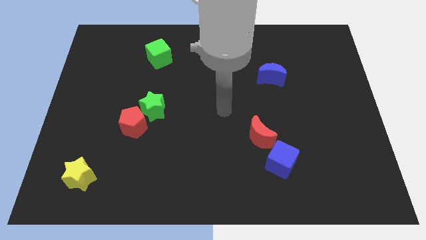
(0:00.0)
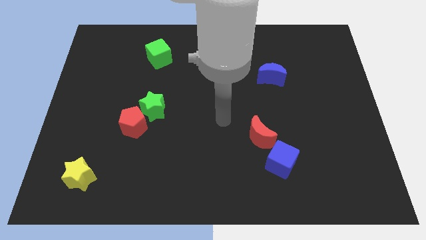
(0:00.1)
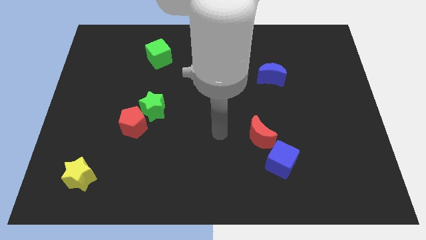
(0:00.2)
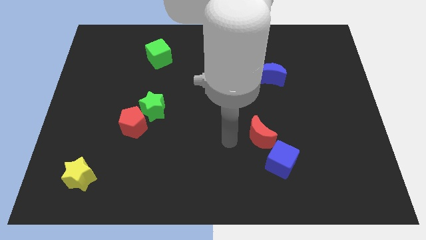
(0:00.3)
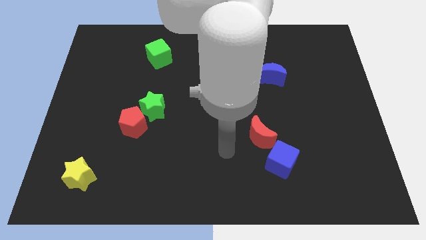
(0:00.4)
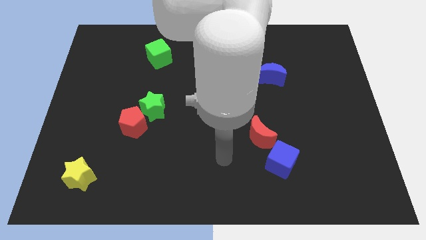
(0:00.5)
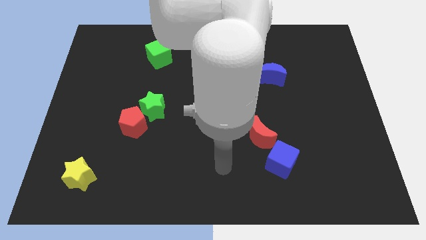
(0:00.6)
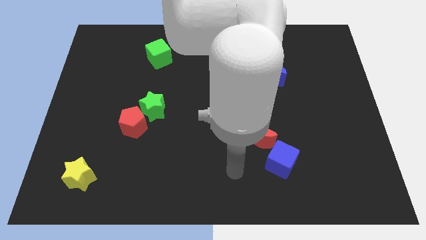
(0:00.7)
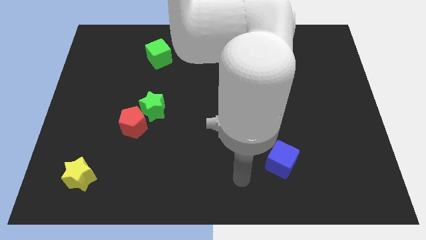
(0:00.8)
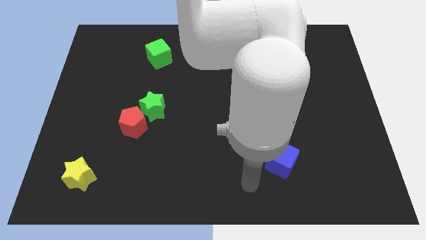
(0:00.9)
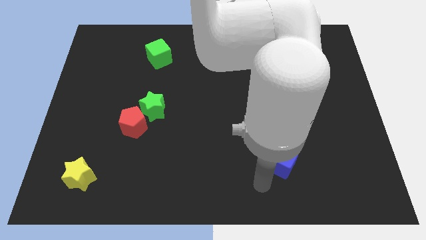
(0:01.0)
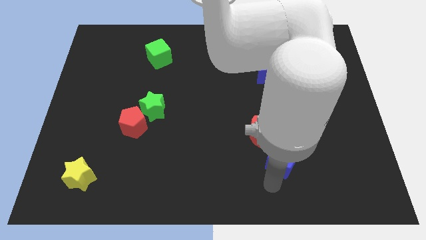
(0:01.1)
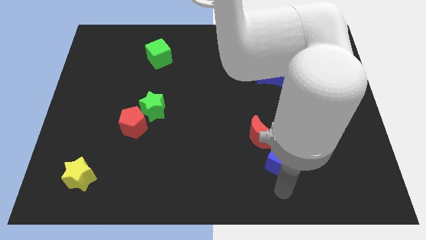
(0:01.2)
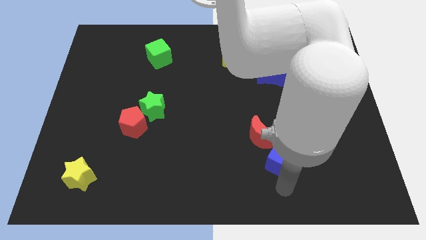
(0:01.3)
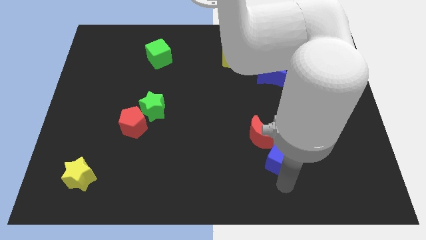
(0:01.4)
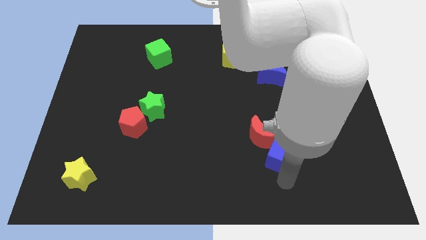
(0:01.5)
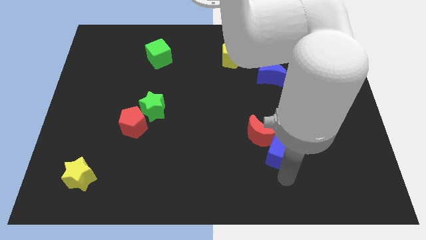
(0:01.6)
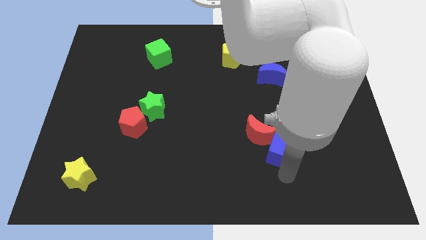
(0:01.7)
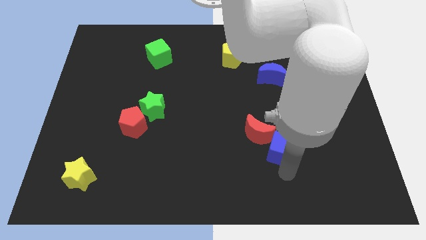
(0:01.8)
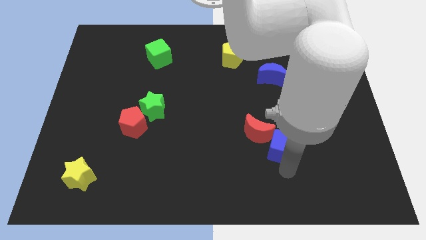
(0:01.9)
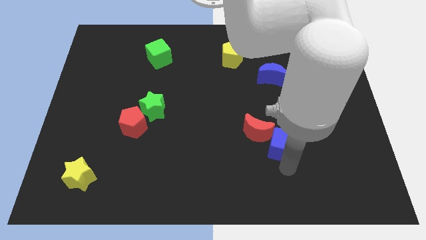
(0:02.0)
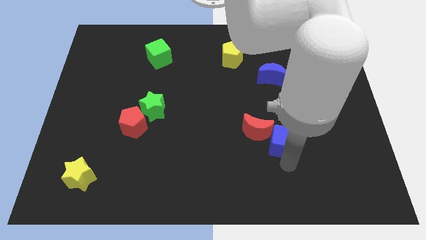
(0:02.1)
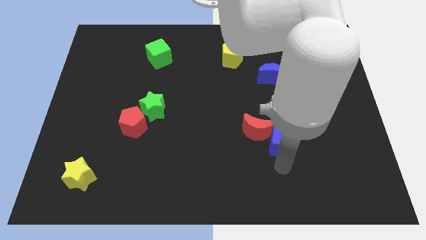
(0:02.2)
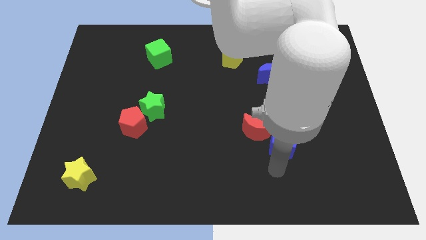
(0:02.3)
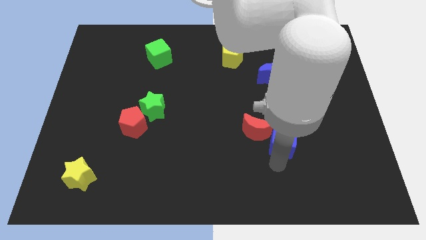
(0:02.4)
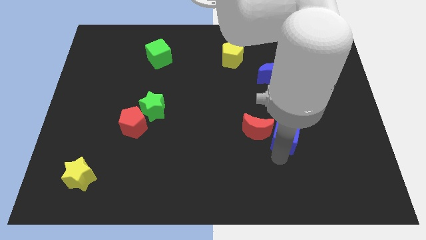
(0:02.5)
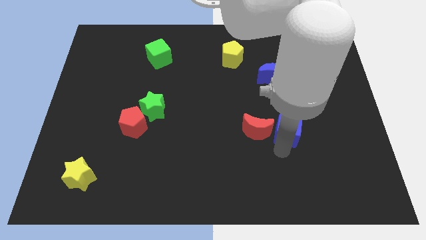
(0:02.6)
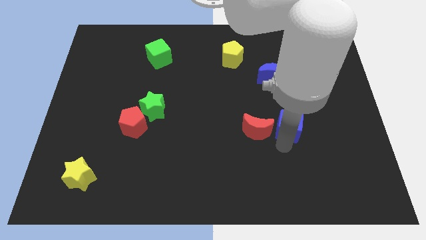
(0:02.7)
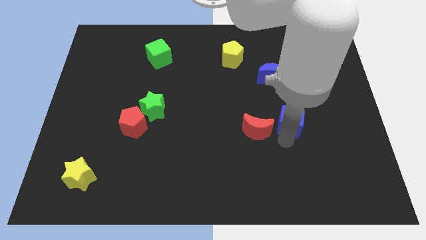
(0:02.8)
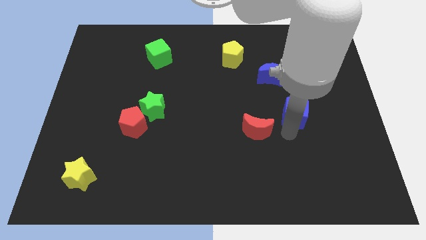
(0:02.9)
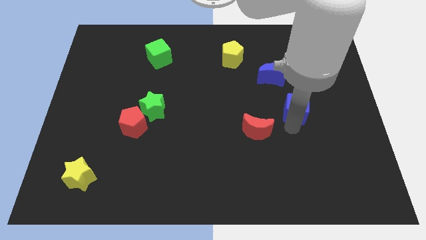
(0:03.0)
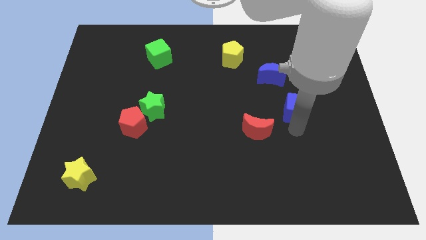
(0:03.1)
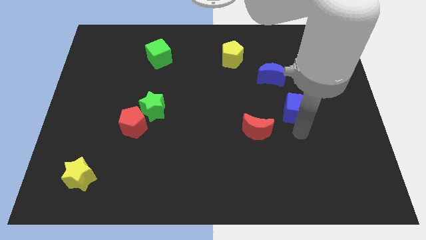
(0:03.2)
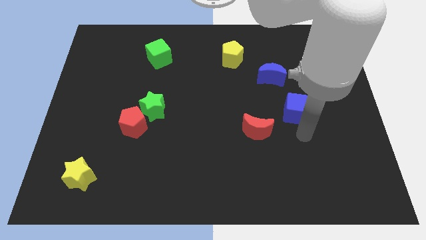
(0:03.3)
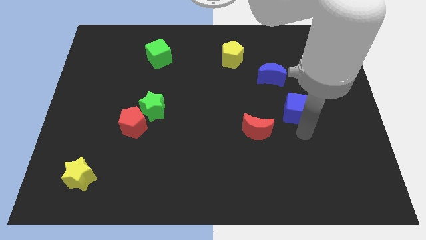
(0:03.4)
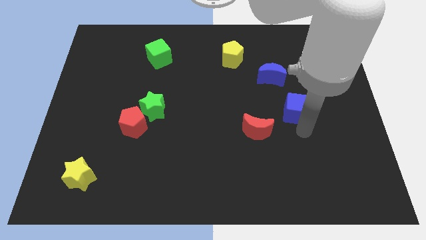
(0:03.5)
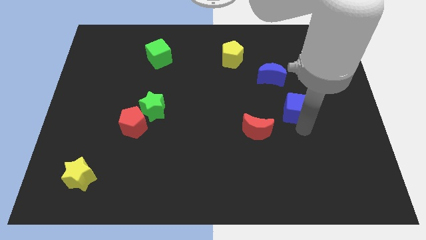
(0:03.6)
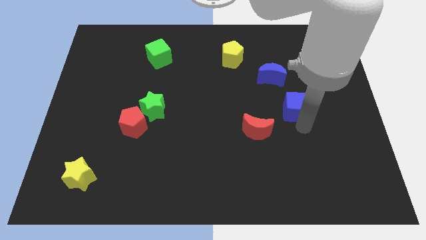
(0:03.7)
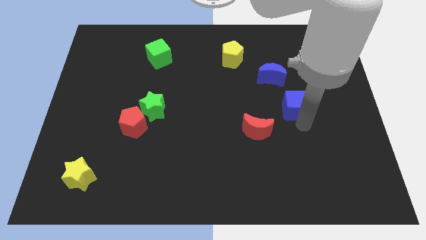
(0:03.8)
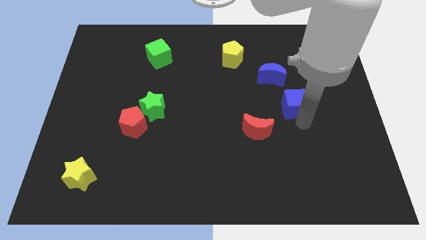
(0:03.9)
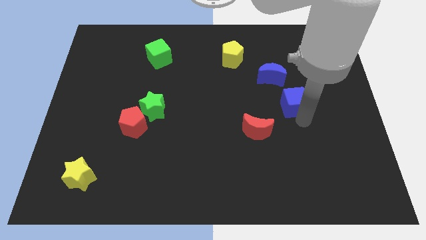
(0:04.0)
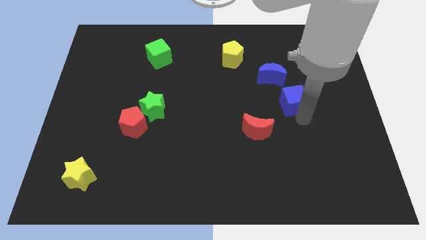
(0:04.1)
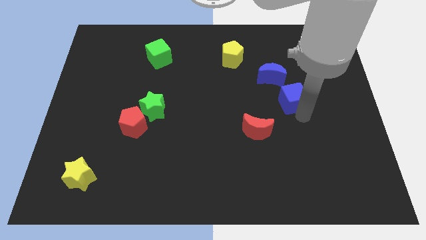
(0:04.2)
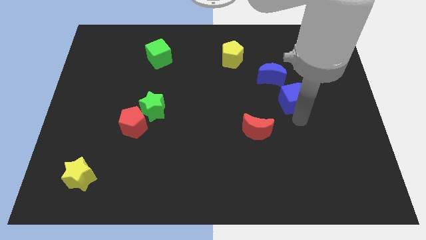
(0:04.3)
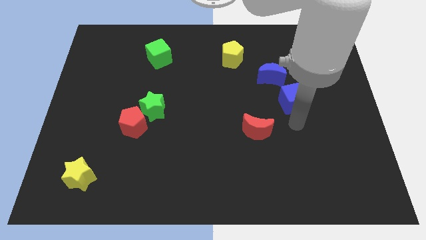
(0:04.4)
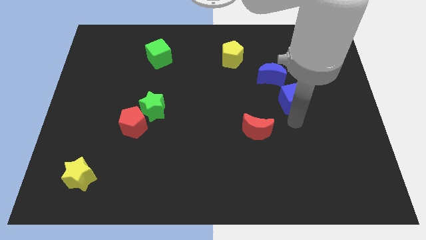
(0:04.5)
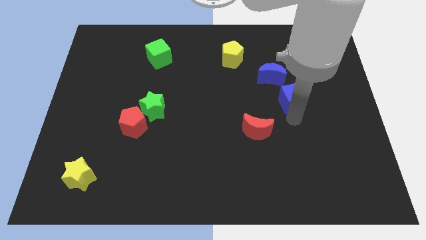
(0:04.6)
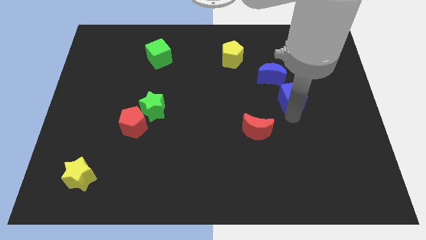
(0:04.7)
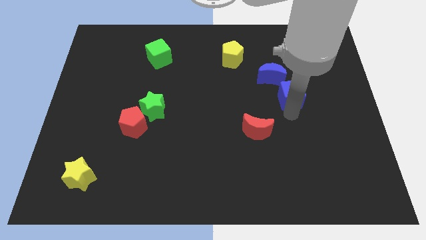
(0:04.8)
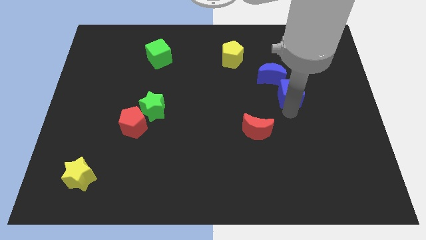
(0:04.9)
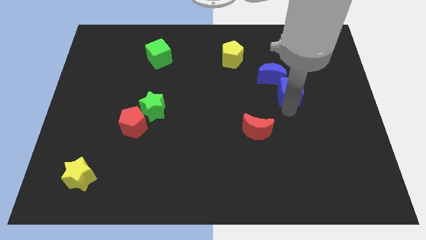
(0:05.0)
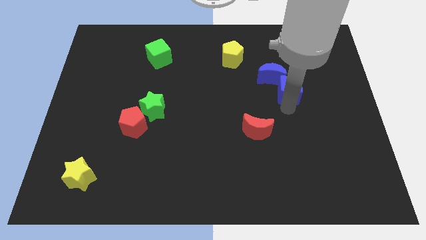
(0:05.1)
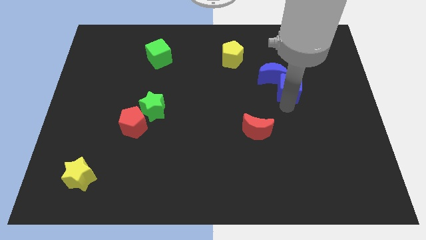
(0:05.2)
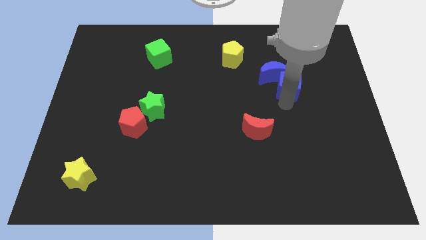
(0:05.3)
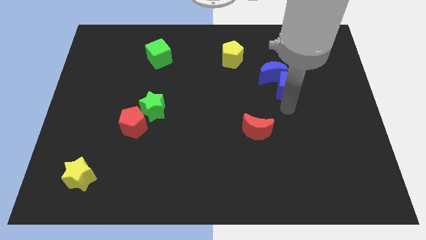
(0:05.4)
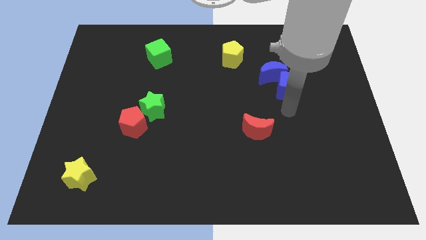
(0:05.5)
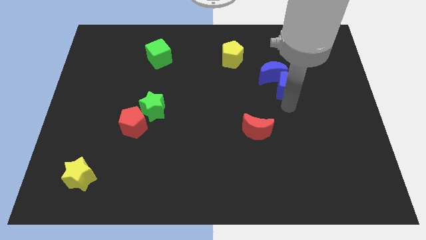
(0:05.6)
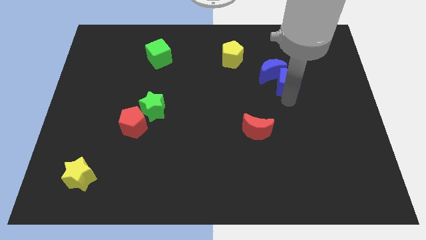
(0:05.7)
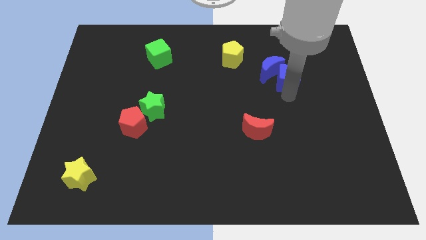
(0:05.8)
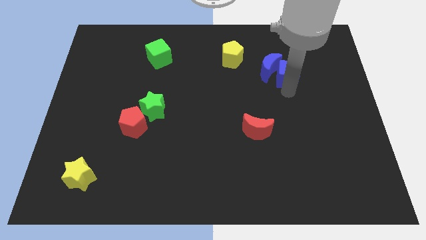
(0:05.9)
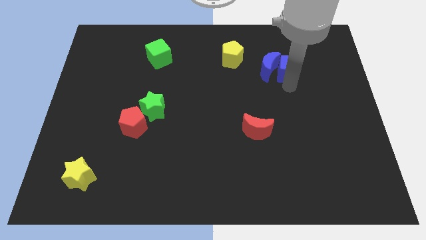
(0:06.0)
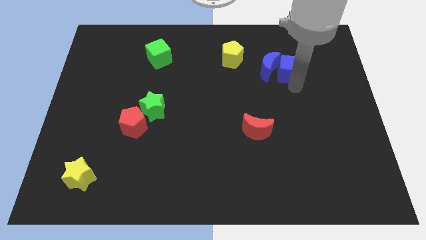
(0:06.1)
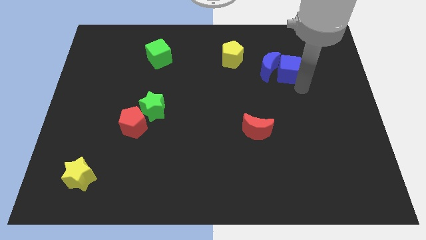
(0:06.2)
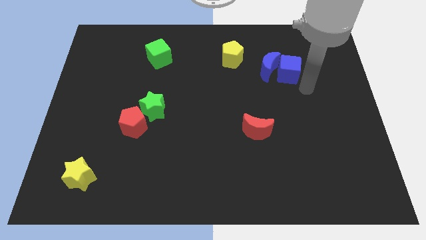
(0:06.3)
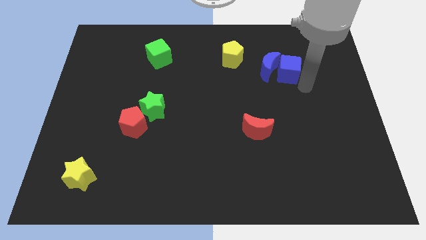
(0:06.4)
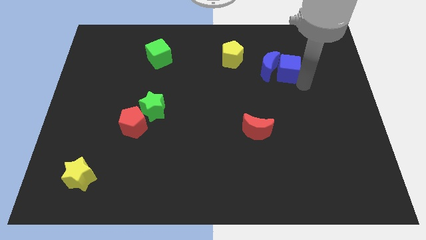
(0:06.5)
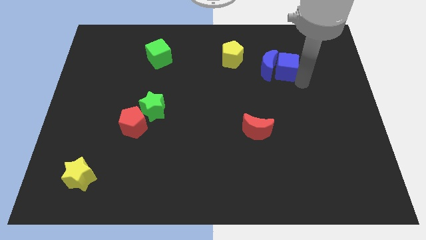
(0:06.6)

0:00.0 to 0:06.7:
slide the blue cube right of the yellow pentagon
